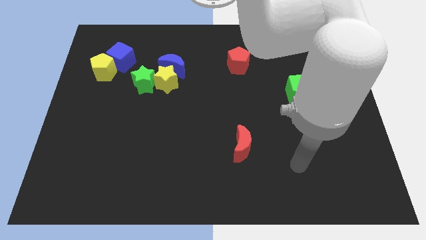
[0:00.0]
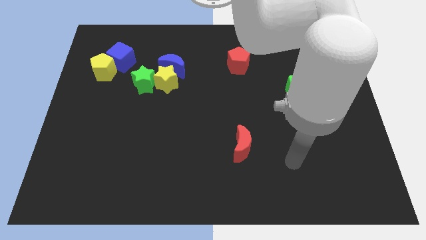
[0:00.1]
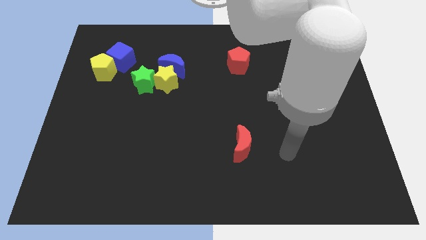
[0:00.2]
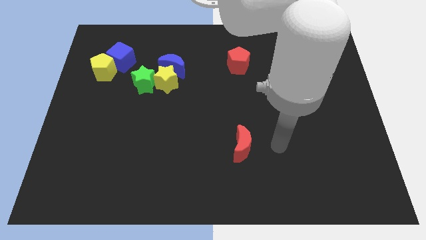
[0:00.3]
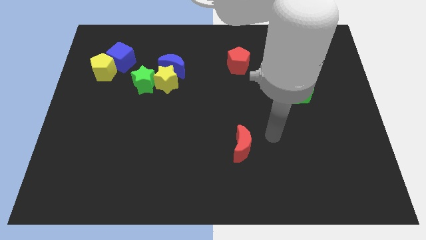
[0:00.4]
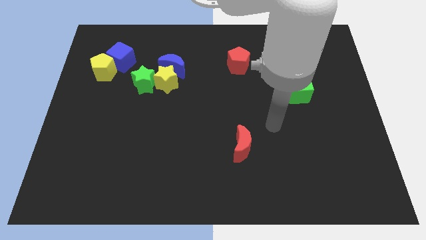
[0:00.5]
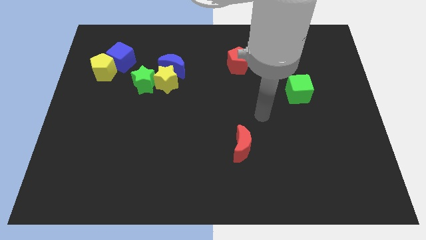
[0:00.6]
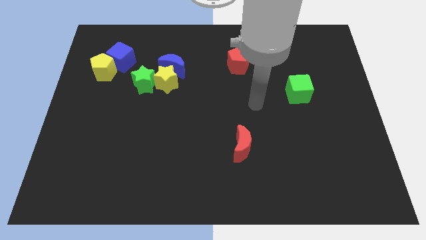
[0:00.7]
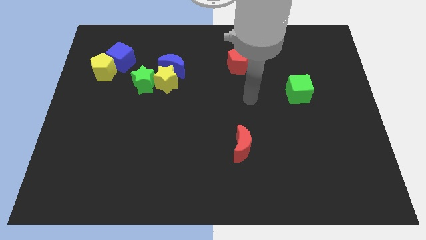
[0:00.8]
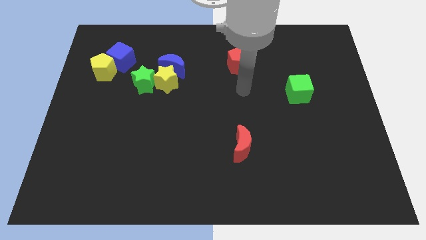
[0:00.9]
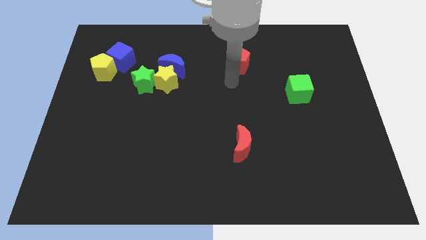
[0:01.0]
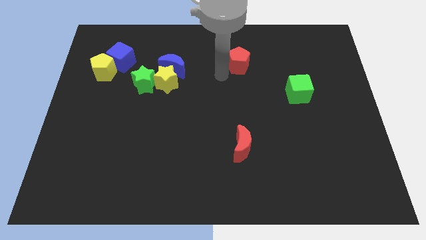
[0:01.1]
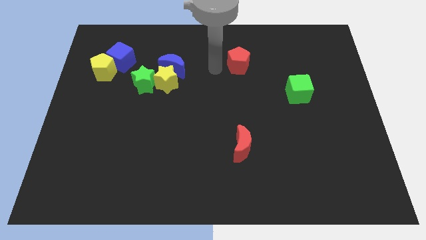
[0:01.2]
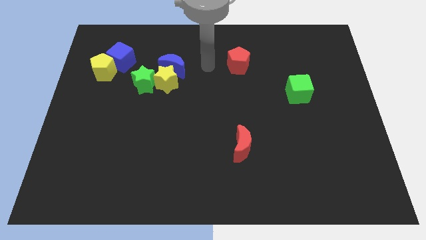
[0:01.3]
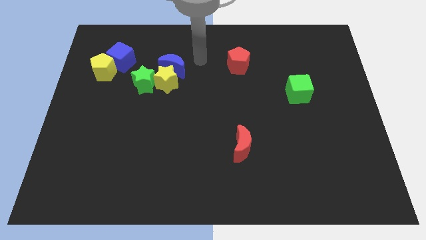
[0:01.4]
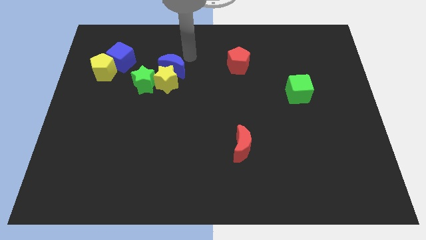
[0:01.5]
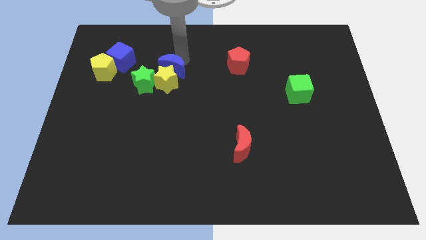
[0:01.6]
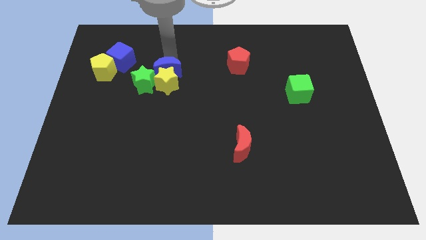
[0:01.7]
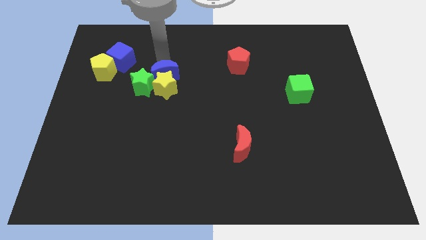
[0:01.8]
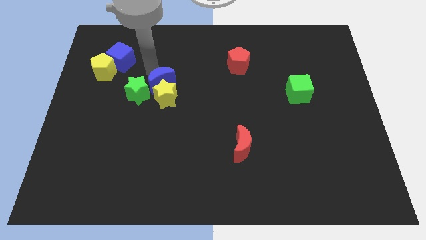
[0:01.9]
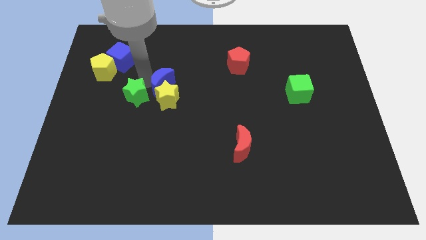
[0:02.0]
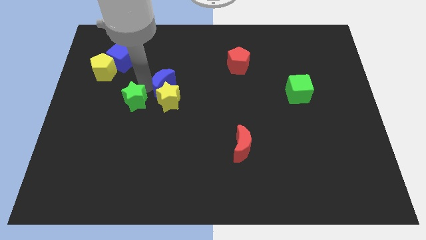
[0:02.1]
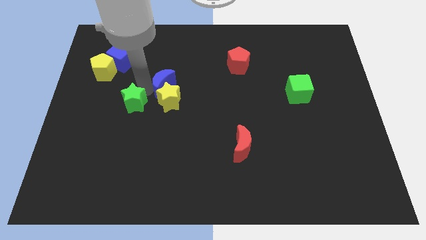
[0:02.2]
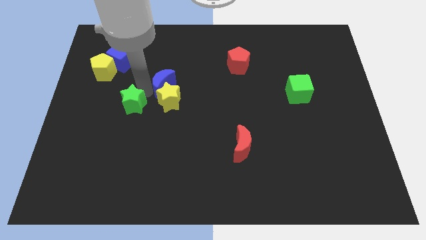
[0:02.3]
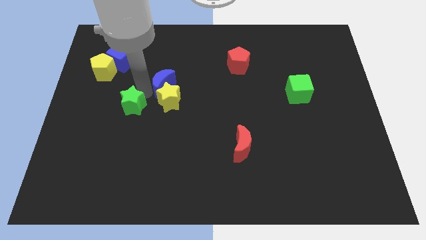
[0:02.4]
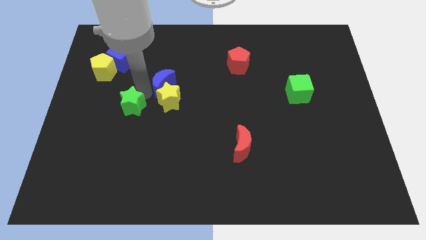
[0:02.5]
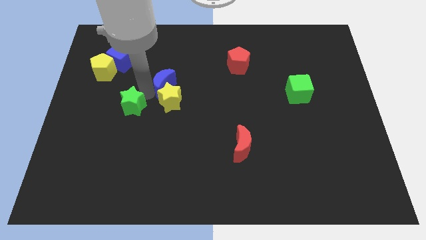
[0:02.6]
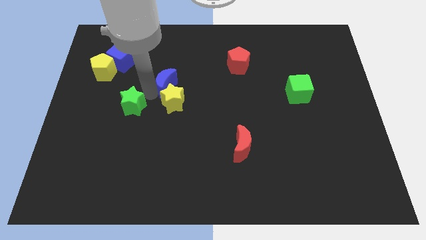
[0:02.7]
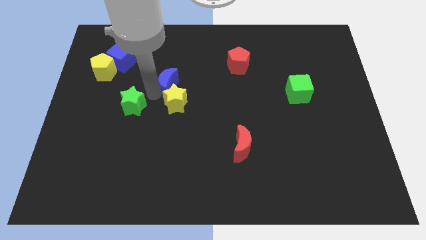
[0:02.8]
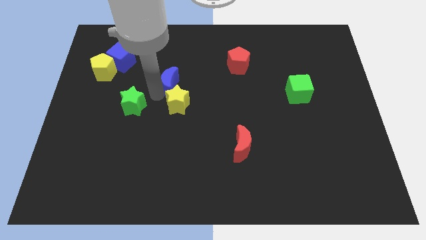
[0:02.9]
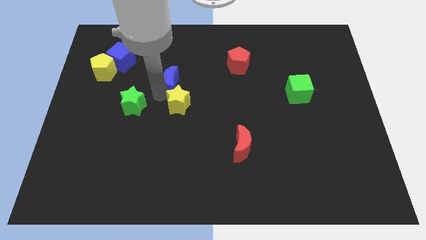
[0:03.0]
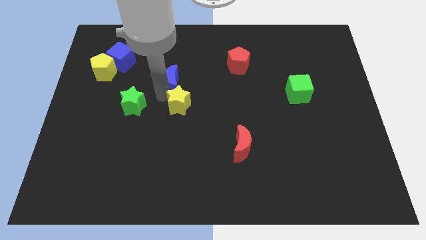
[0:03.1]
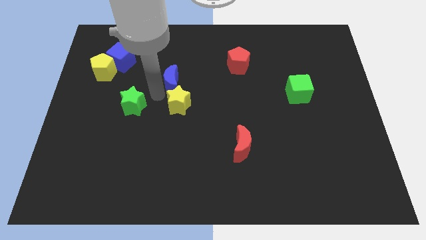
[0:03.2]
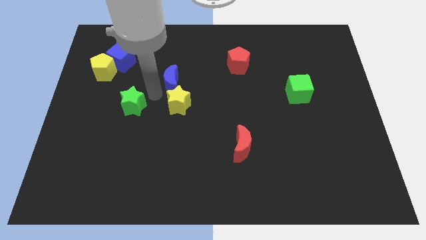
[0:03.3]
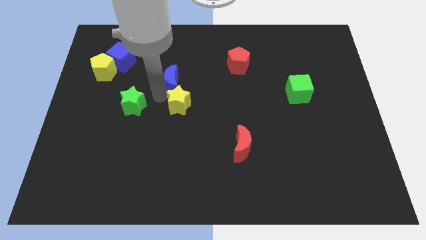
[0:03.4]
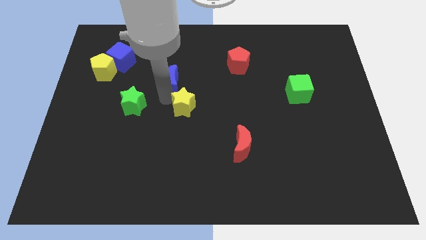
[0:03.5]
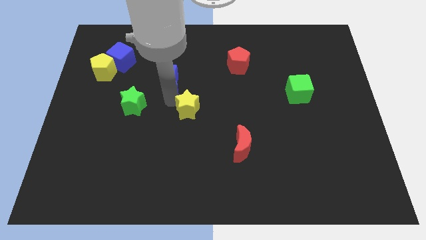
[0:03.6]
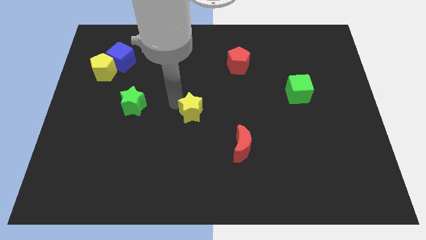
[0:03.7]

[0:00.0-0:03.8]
separate the yellow star from the blue moon and green star

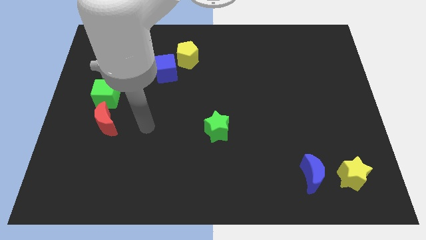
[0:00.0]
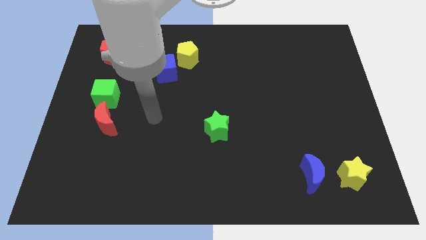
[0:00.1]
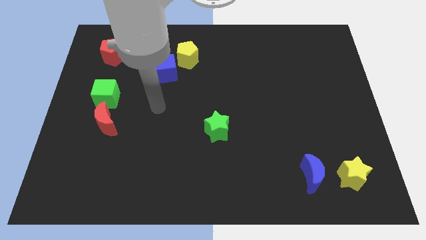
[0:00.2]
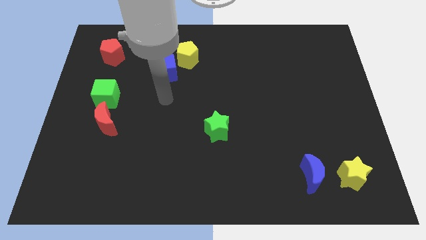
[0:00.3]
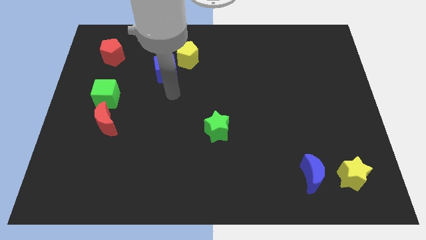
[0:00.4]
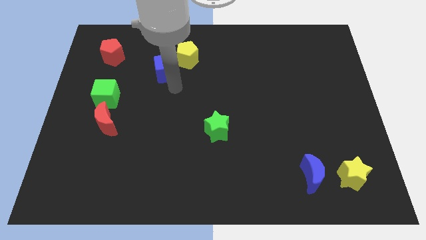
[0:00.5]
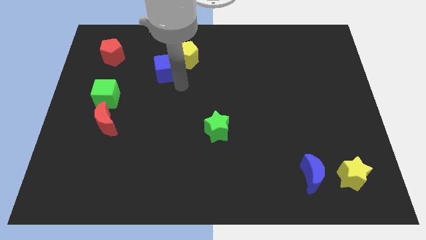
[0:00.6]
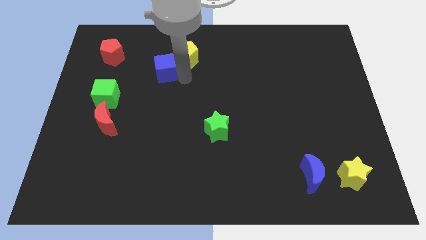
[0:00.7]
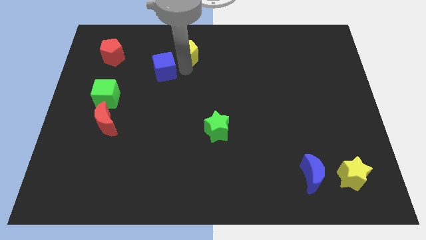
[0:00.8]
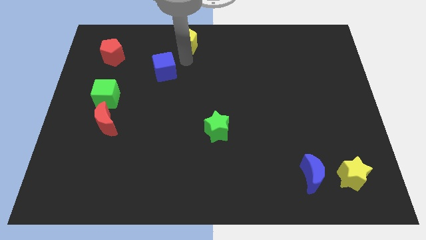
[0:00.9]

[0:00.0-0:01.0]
move the blue cube away from the yellow pentagon

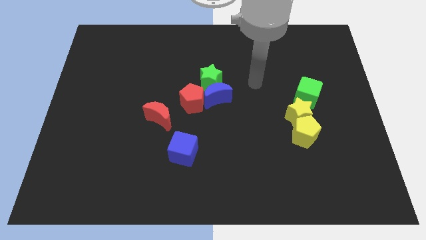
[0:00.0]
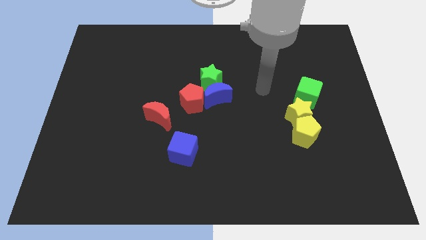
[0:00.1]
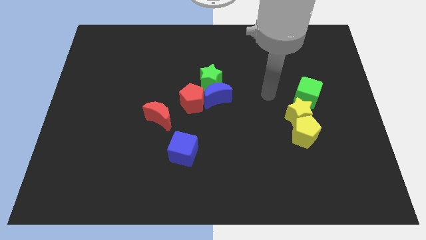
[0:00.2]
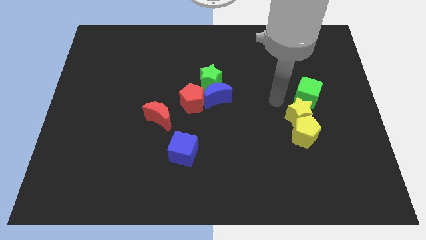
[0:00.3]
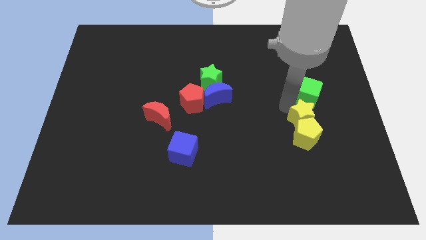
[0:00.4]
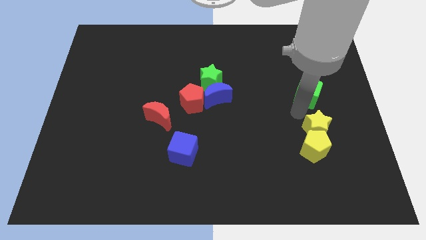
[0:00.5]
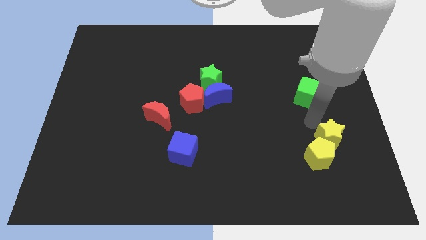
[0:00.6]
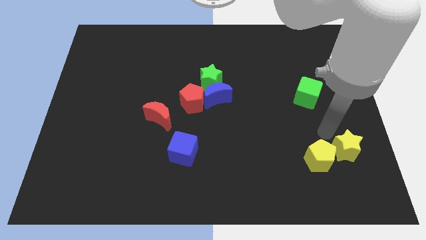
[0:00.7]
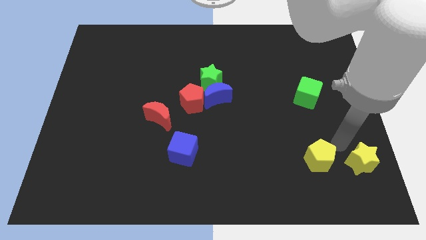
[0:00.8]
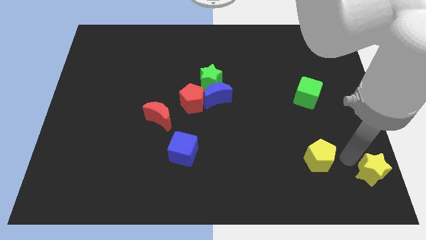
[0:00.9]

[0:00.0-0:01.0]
separate the yellow pentagon from the yellow star

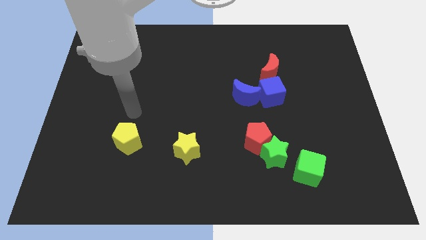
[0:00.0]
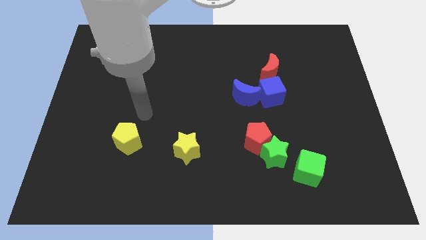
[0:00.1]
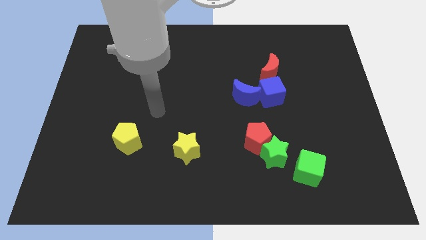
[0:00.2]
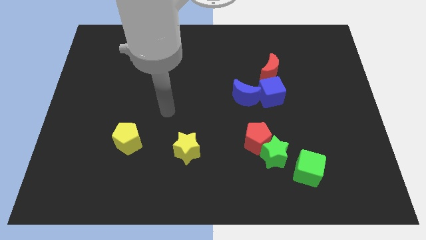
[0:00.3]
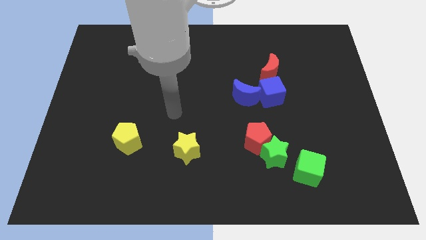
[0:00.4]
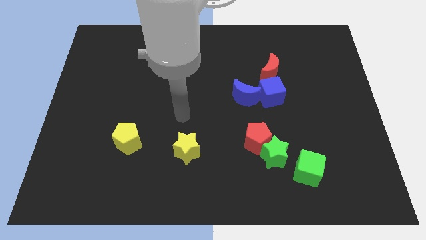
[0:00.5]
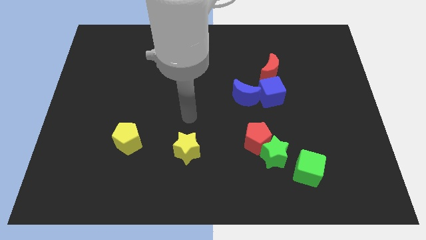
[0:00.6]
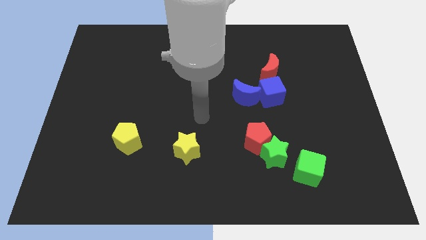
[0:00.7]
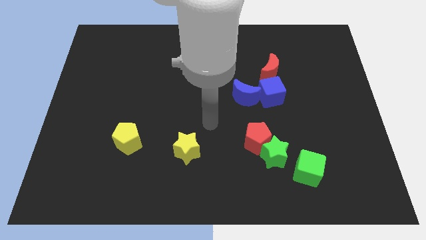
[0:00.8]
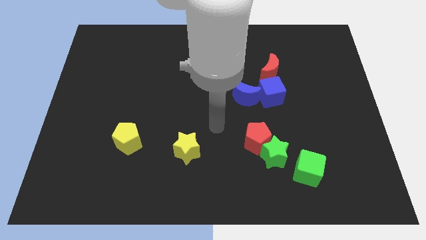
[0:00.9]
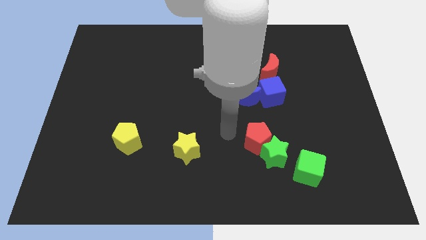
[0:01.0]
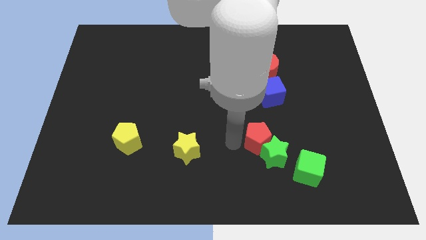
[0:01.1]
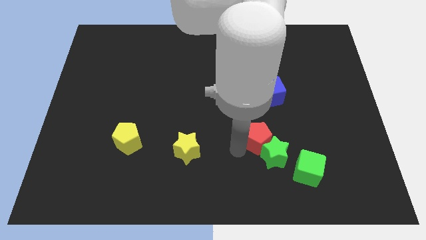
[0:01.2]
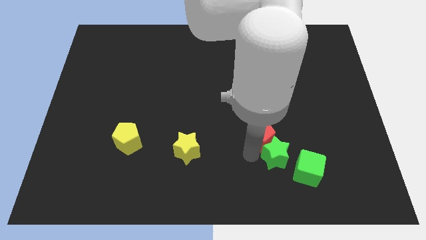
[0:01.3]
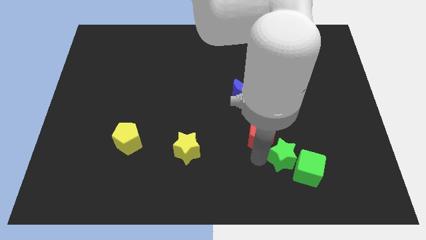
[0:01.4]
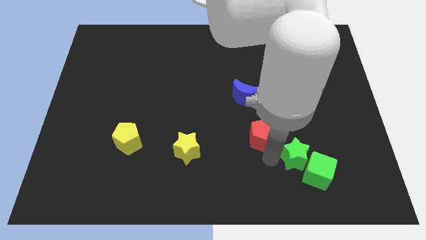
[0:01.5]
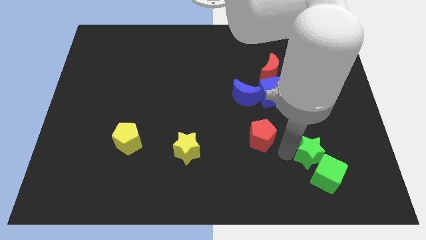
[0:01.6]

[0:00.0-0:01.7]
separate the red pentagon from the green star

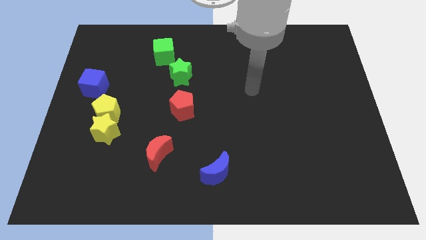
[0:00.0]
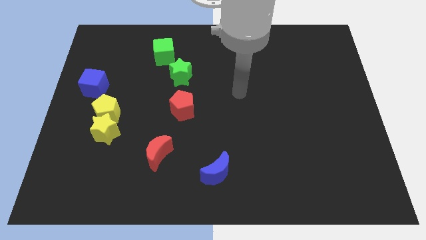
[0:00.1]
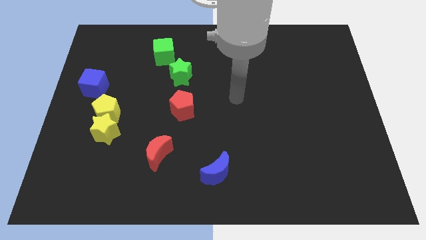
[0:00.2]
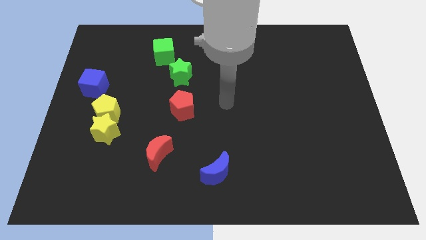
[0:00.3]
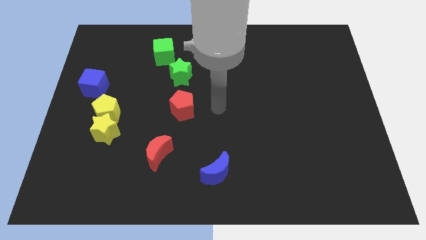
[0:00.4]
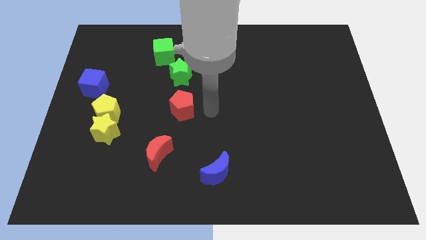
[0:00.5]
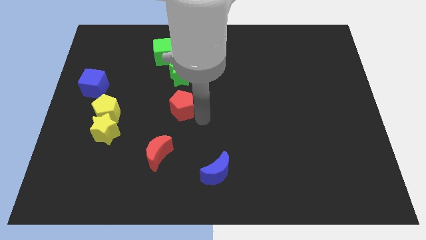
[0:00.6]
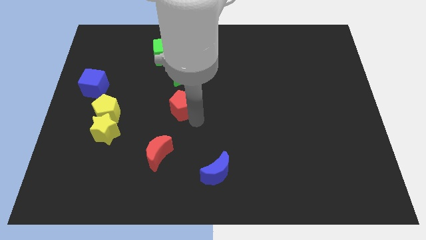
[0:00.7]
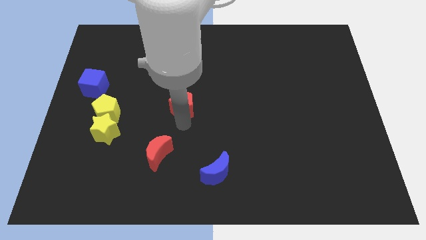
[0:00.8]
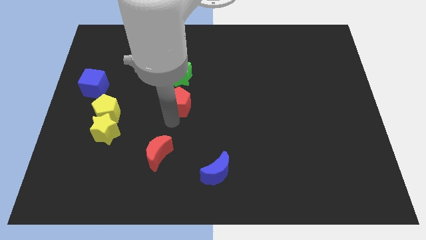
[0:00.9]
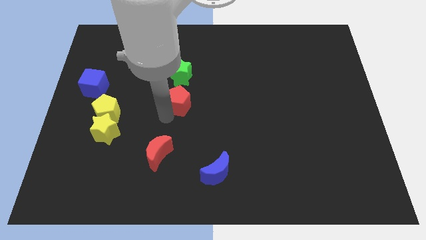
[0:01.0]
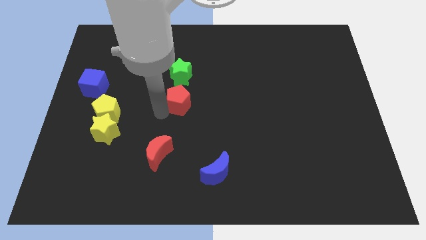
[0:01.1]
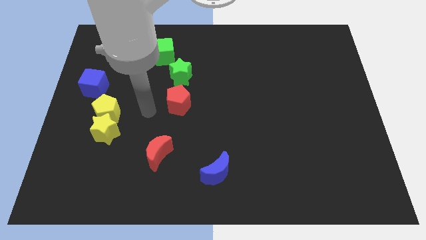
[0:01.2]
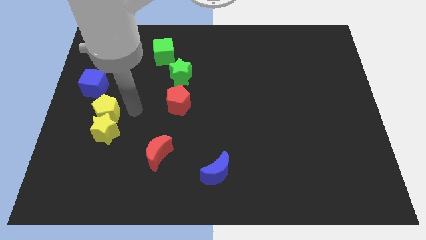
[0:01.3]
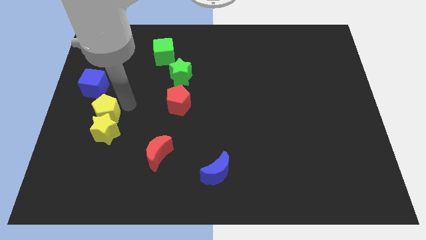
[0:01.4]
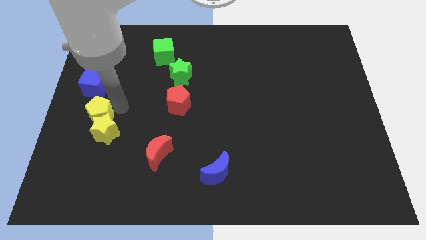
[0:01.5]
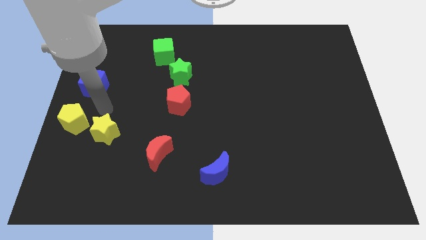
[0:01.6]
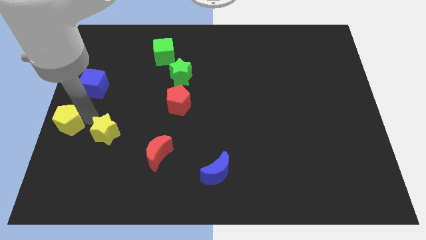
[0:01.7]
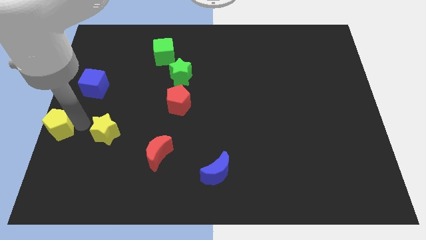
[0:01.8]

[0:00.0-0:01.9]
move the yellow star away from the yellow pentagon
